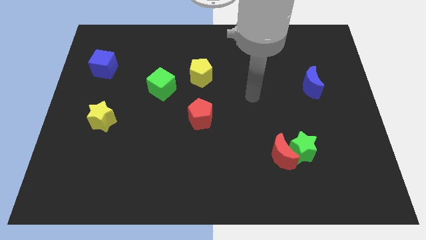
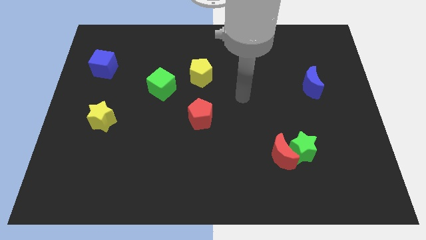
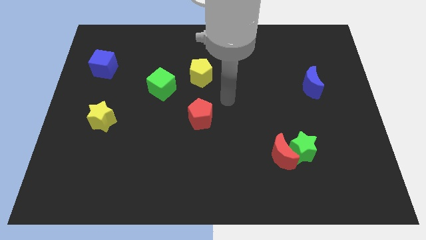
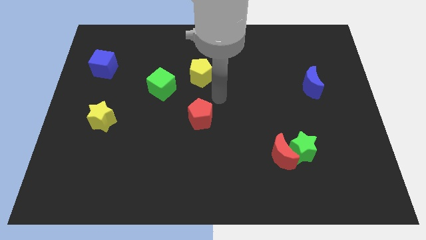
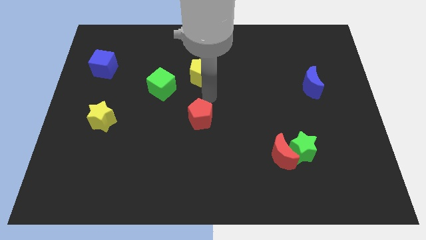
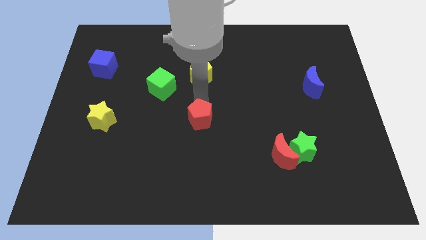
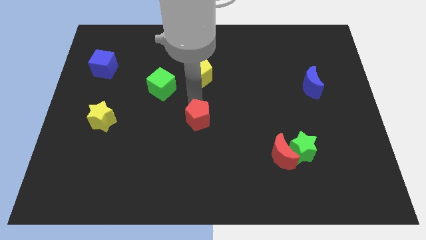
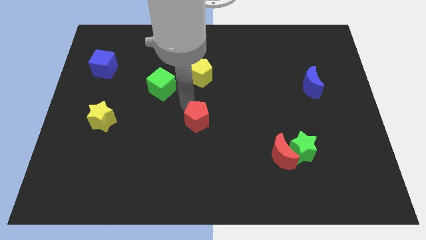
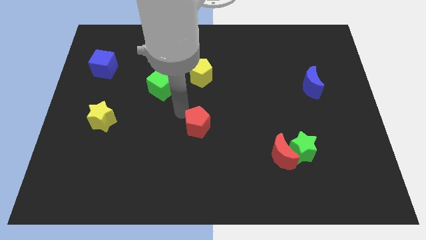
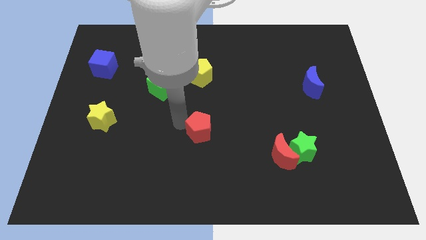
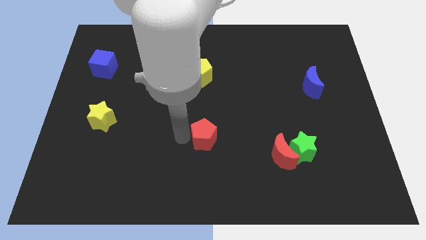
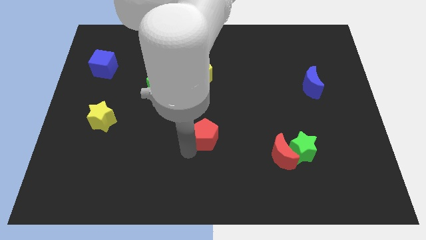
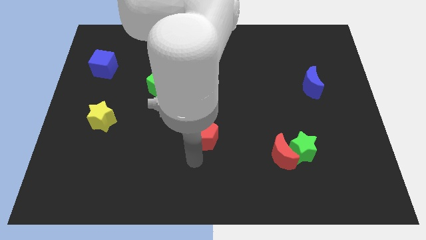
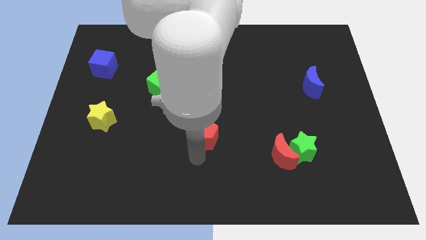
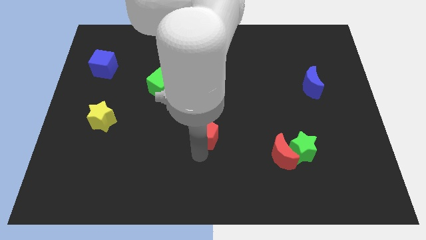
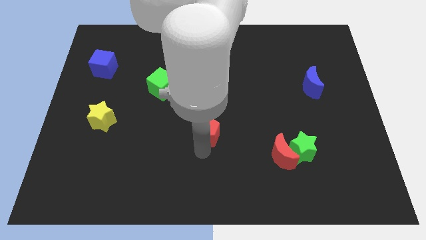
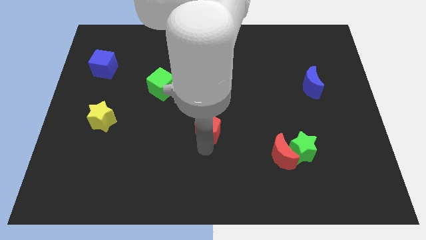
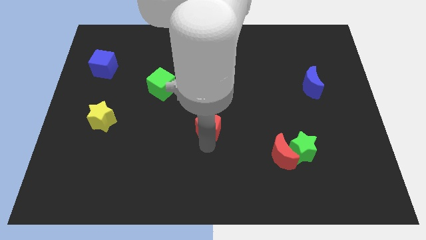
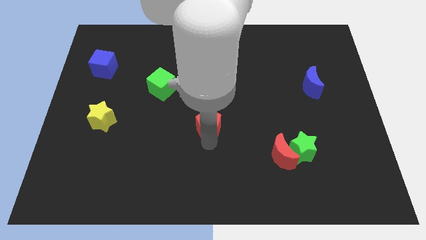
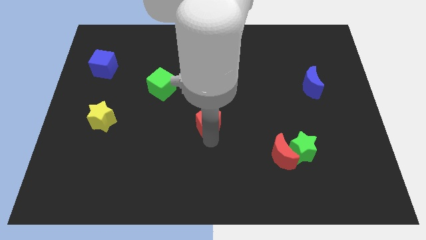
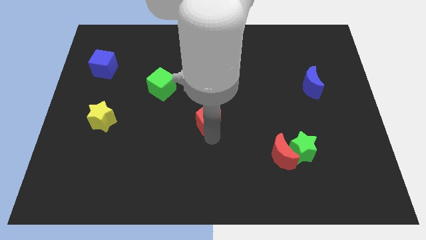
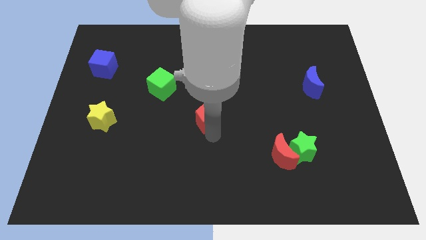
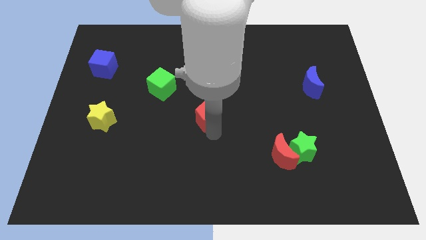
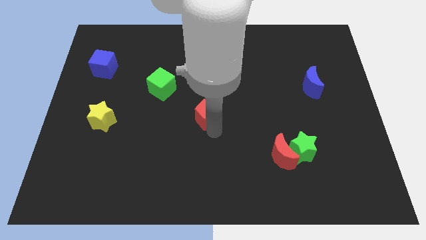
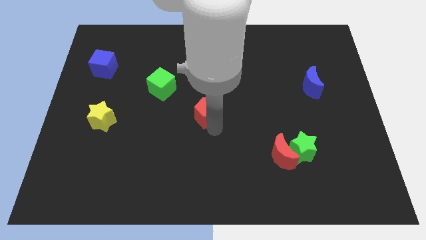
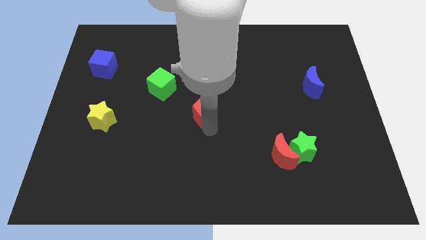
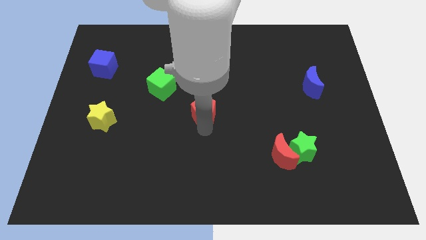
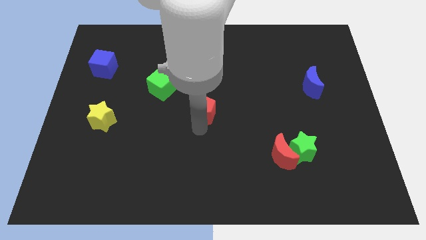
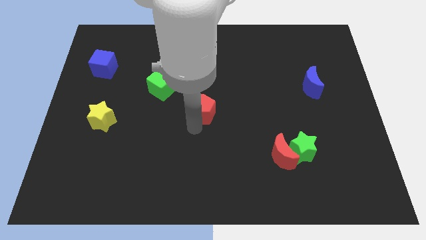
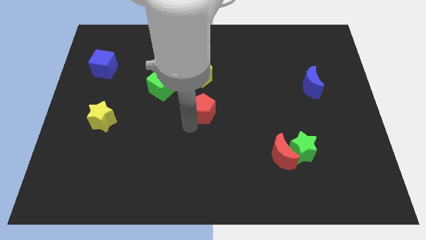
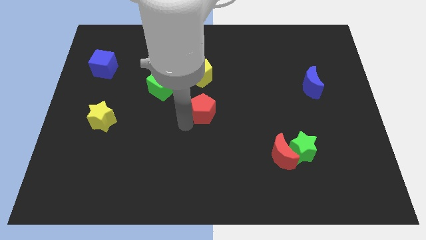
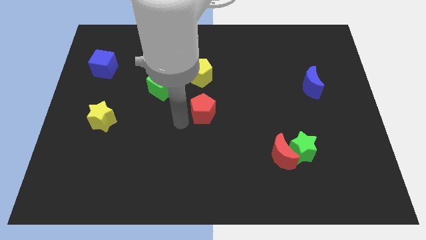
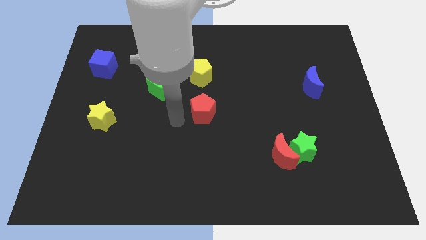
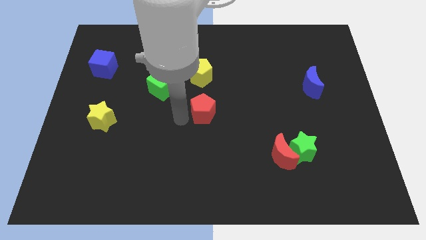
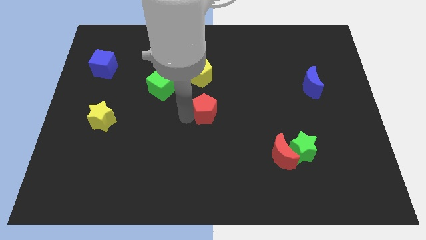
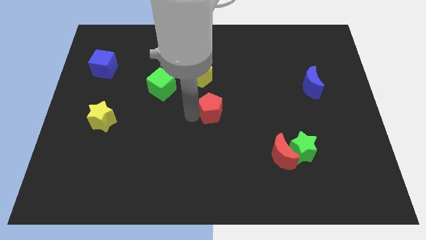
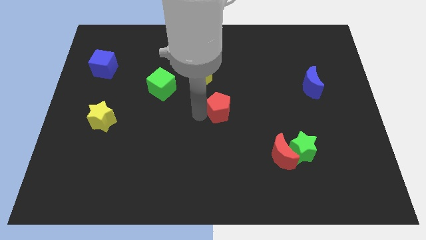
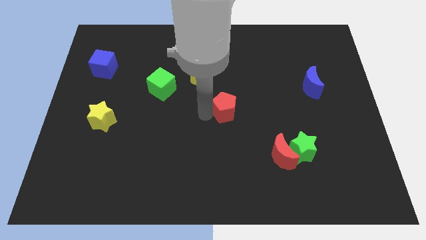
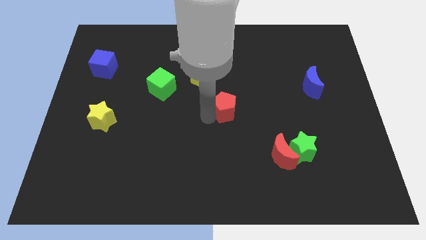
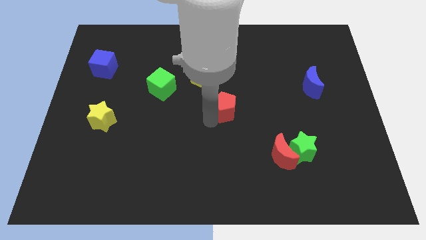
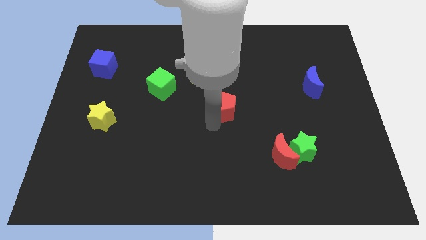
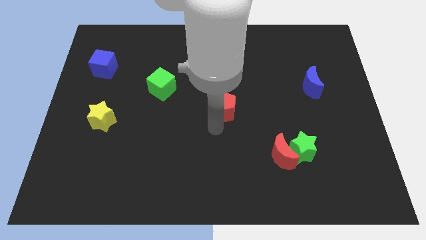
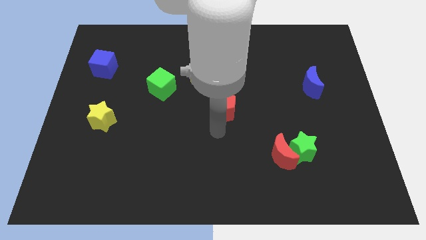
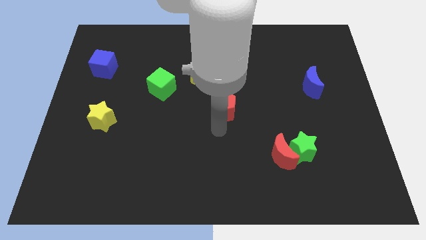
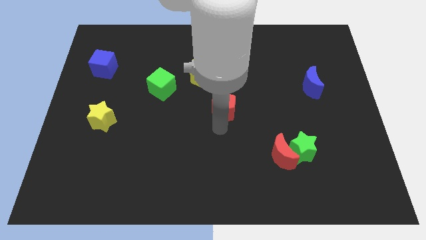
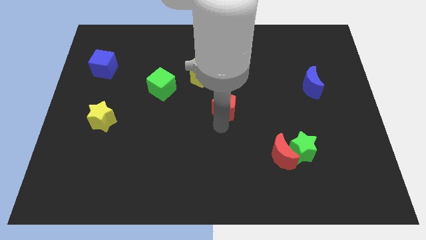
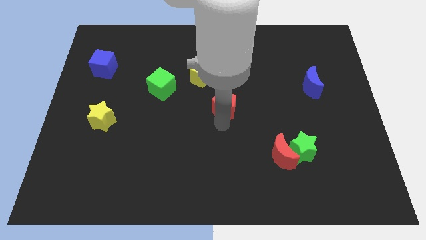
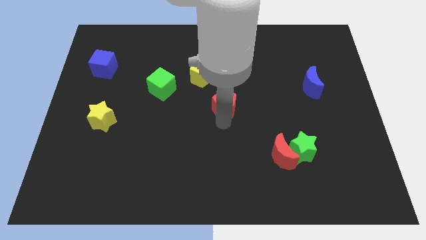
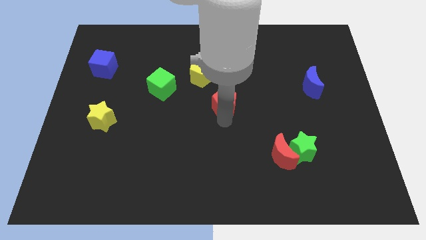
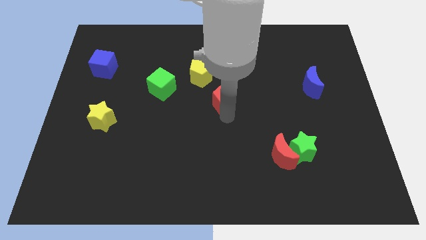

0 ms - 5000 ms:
slide the red pentagon upwards and right a little bit

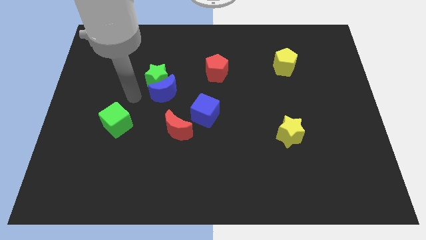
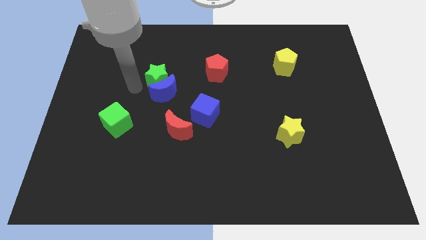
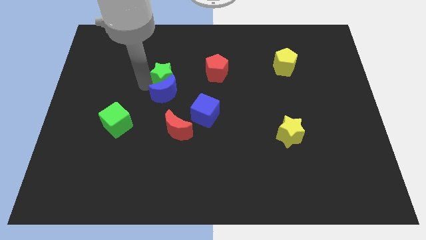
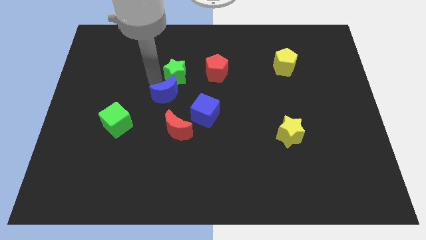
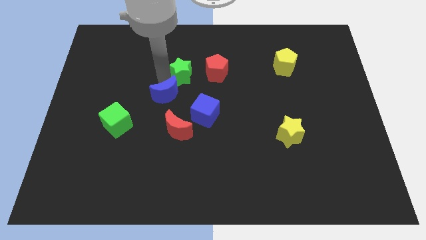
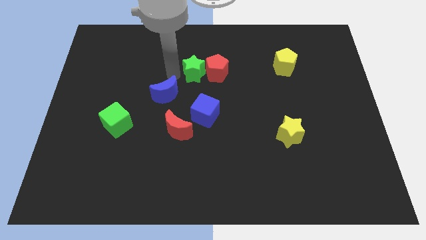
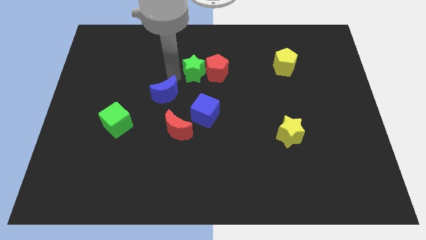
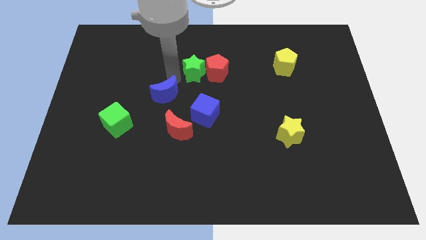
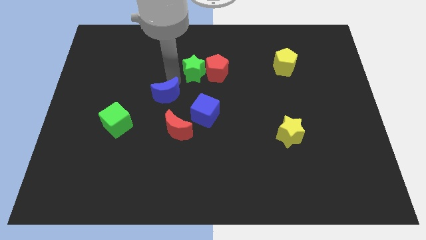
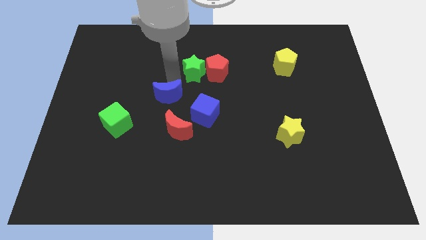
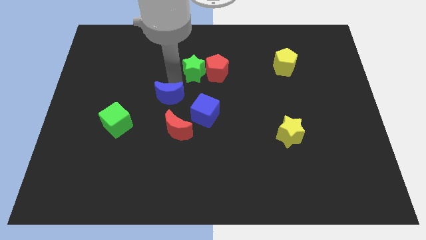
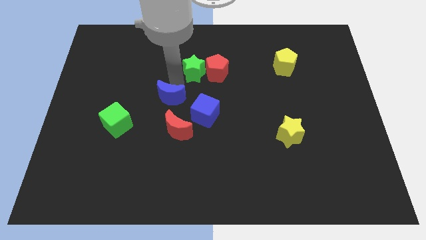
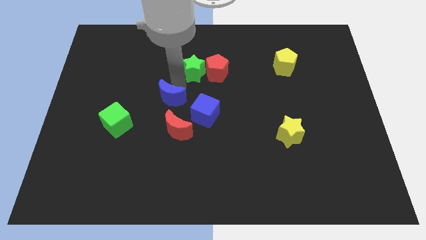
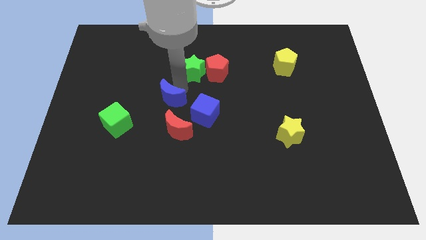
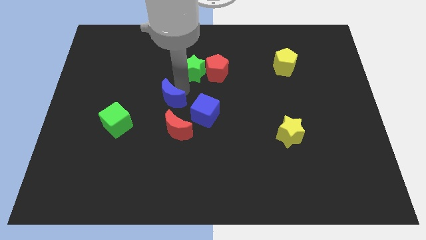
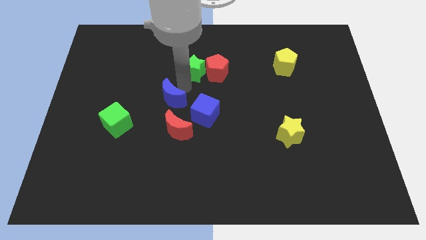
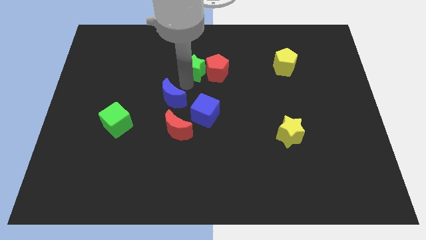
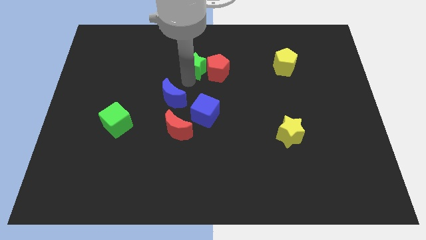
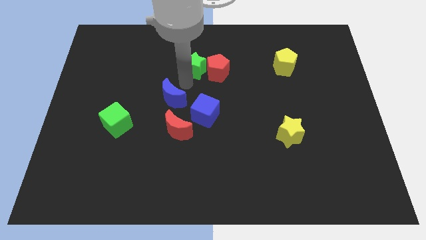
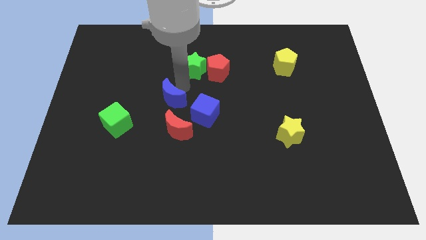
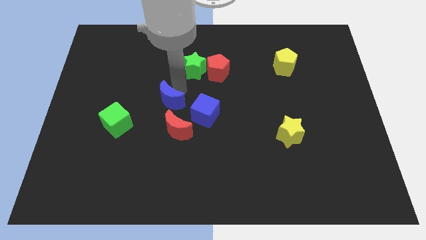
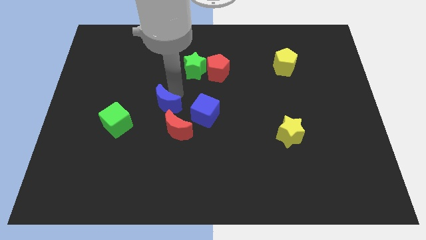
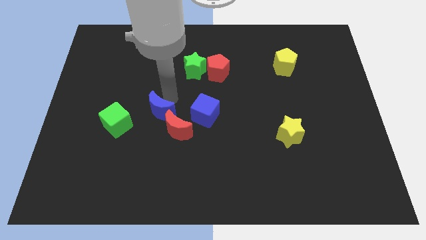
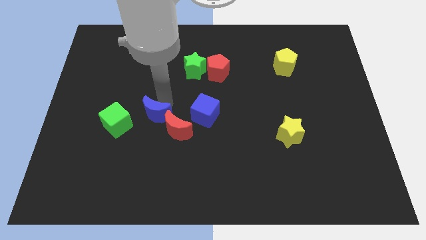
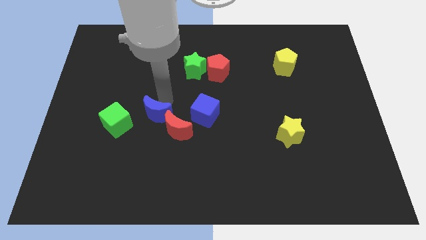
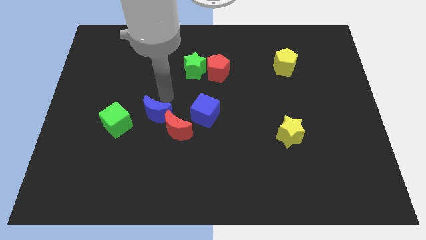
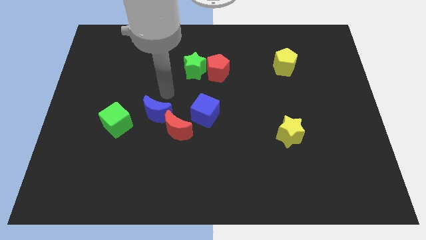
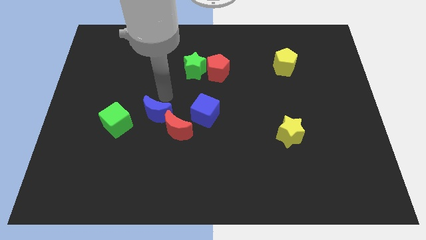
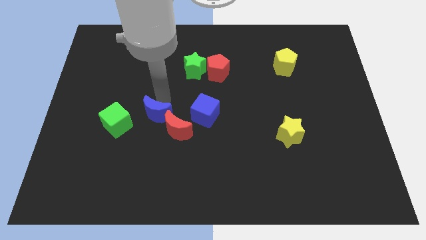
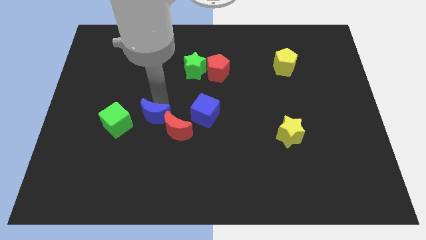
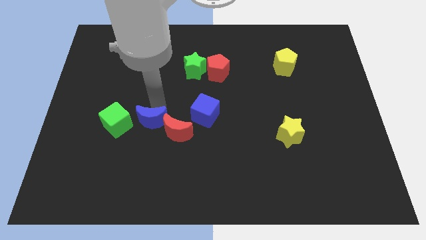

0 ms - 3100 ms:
slightly move the blue moon diagonally downwards and left

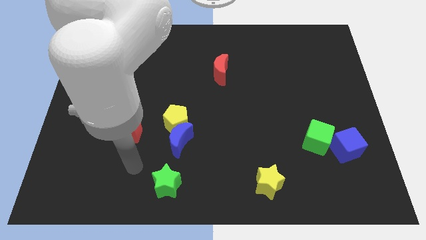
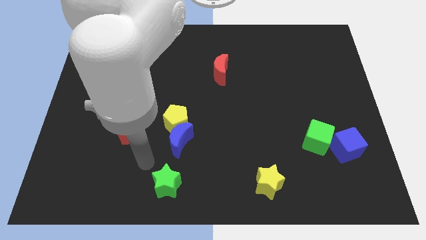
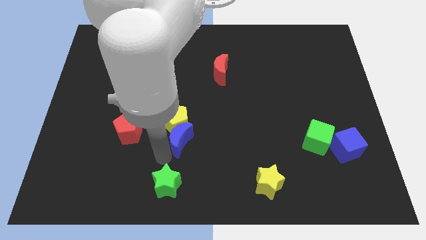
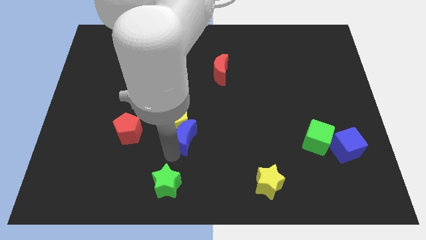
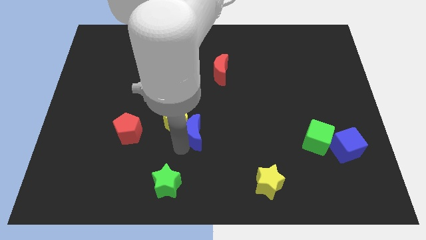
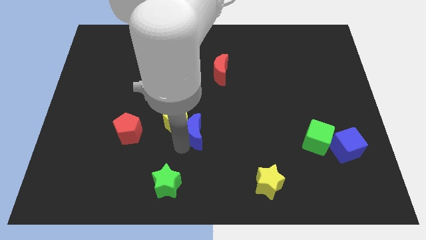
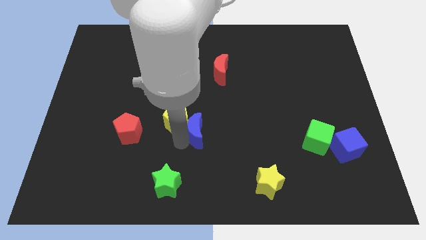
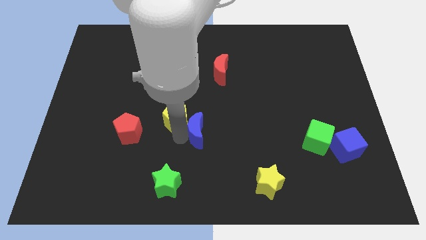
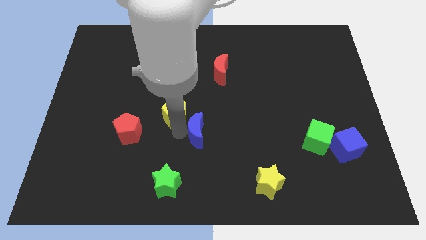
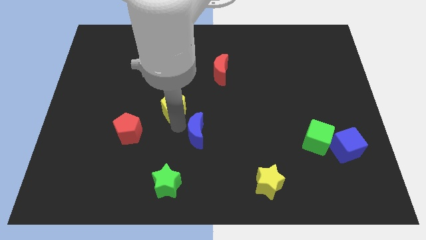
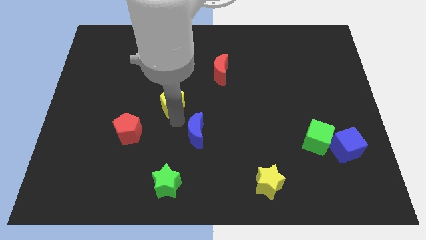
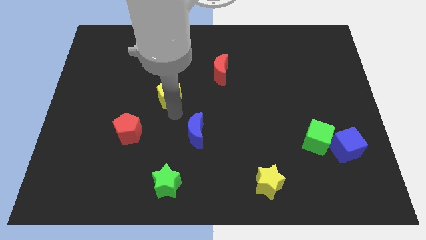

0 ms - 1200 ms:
slide the yellow pentagon slightly upwards
